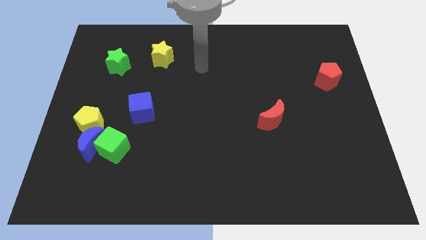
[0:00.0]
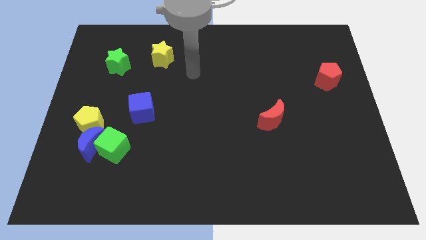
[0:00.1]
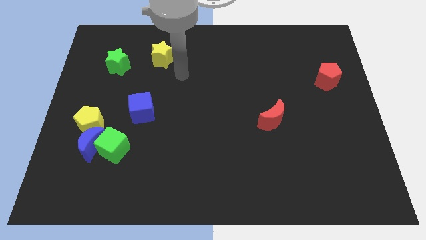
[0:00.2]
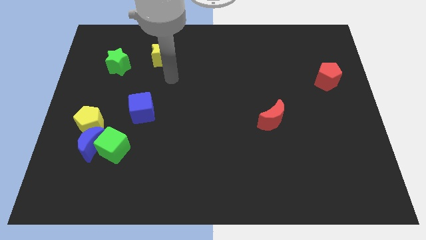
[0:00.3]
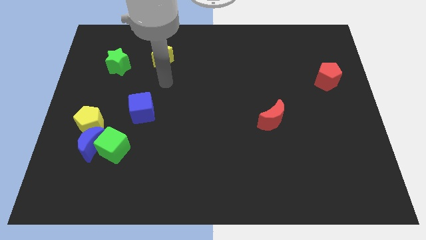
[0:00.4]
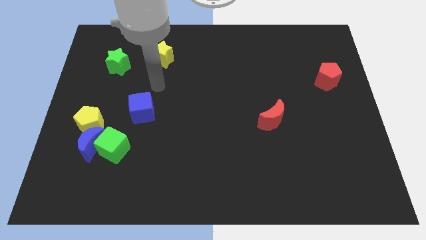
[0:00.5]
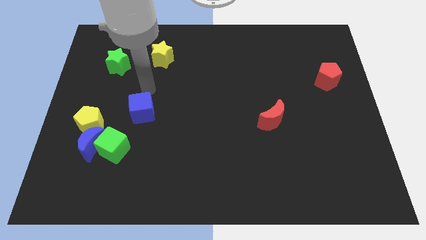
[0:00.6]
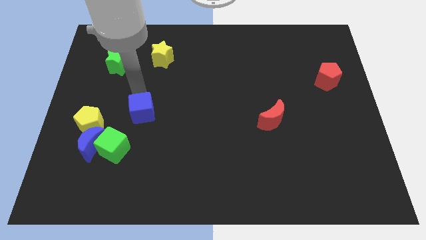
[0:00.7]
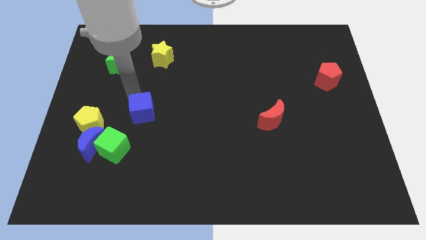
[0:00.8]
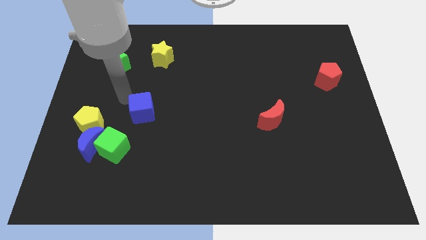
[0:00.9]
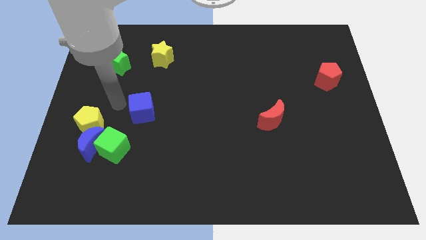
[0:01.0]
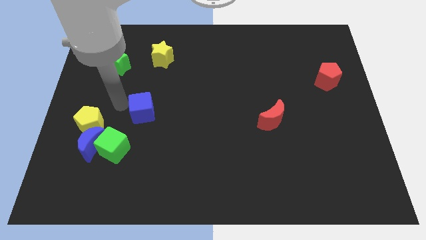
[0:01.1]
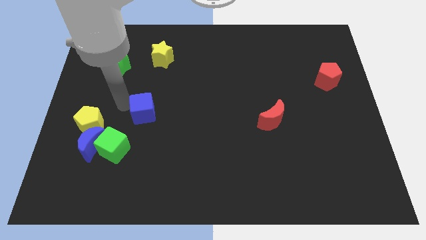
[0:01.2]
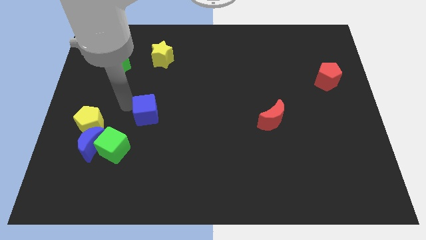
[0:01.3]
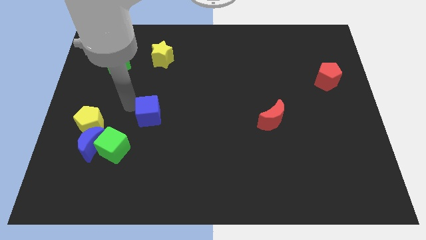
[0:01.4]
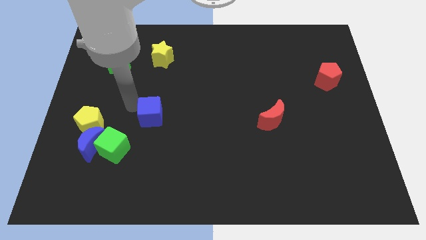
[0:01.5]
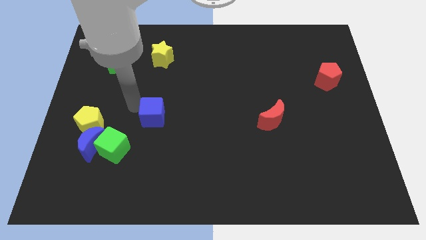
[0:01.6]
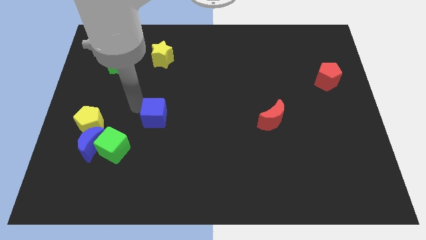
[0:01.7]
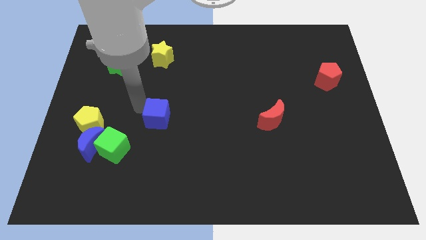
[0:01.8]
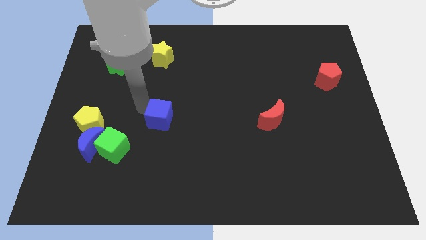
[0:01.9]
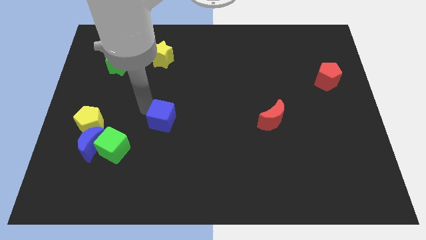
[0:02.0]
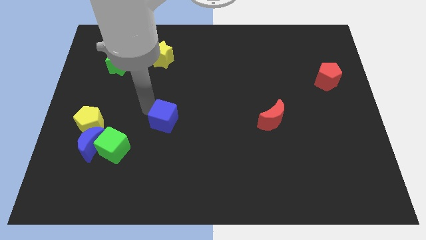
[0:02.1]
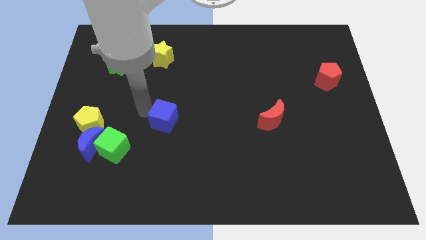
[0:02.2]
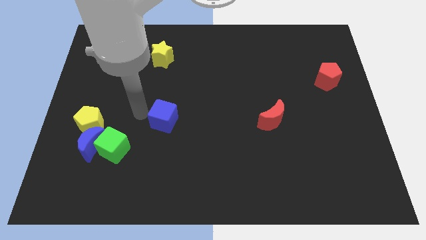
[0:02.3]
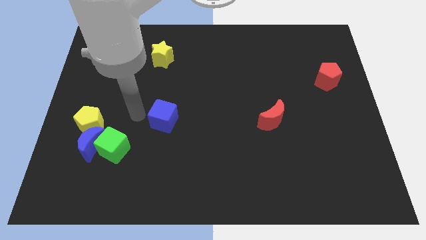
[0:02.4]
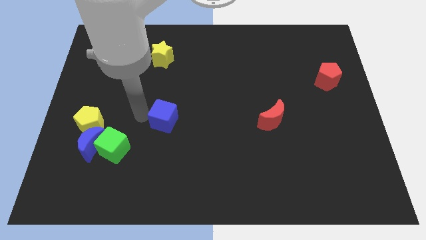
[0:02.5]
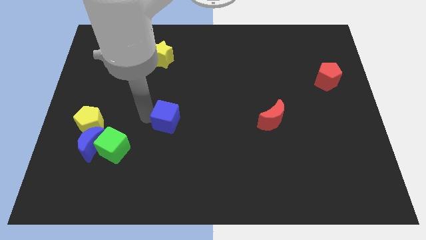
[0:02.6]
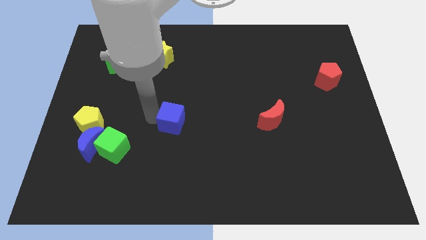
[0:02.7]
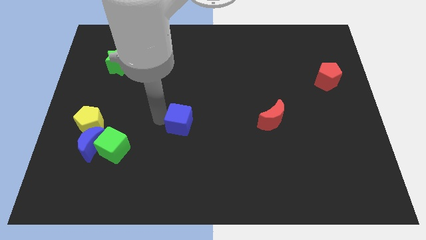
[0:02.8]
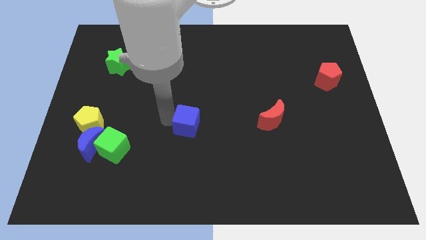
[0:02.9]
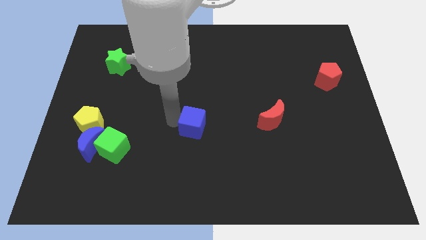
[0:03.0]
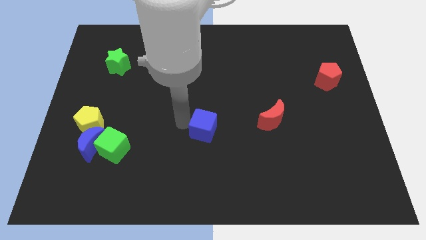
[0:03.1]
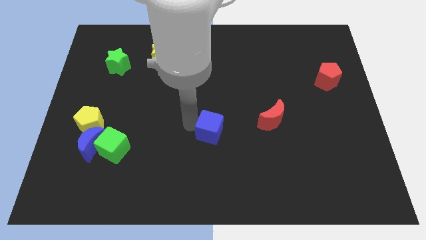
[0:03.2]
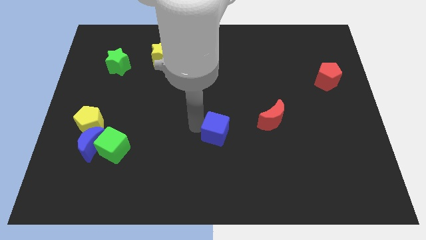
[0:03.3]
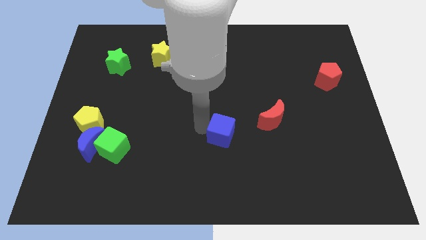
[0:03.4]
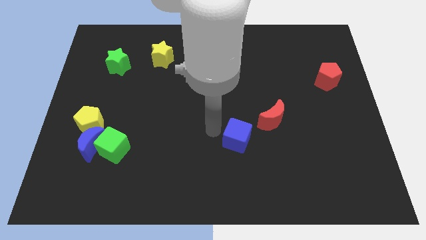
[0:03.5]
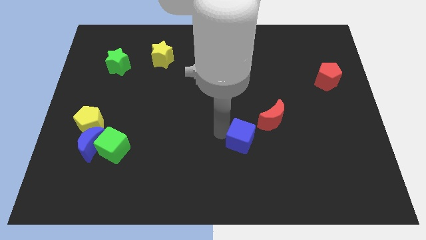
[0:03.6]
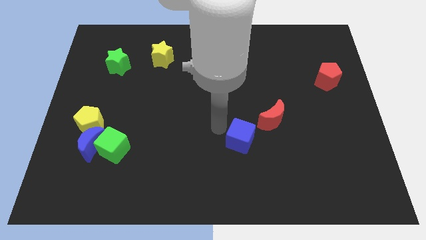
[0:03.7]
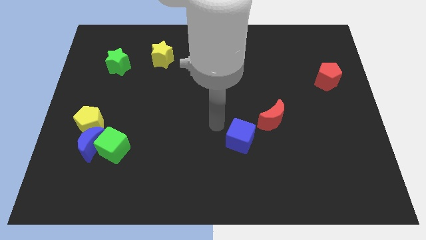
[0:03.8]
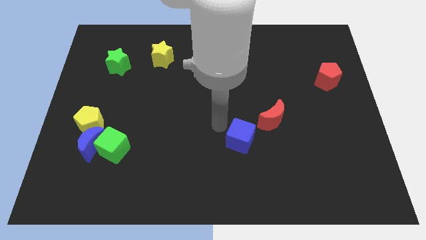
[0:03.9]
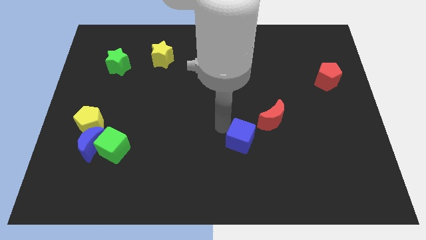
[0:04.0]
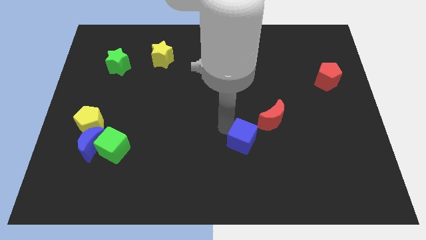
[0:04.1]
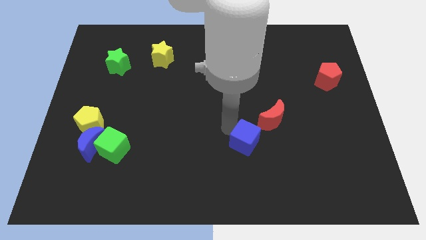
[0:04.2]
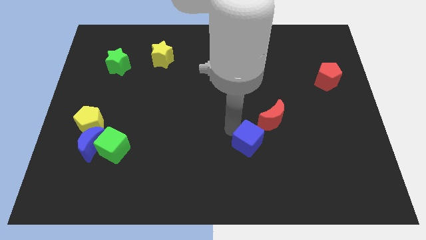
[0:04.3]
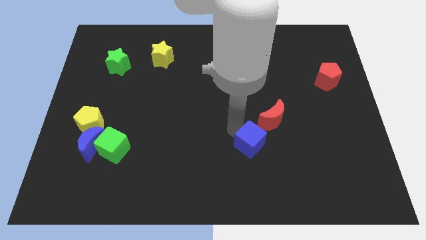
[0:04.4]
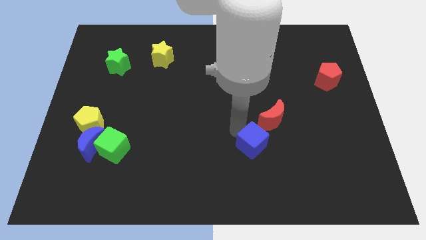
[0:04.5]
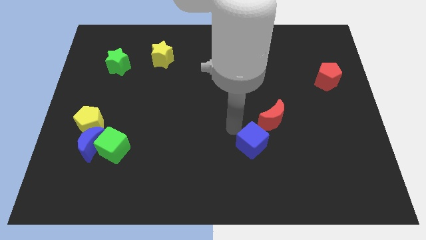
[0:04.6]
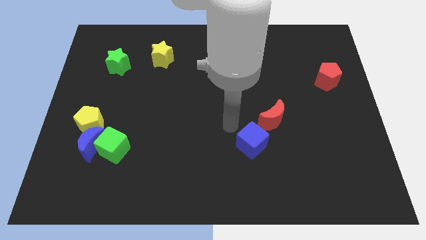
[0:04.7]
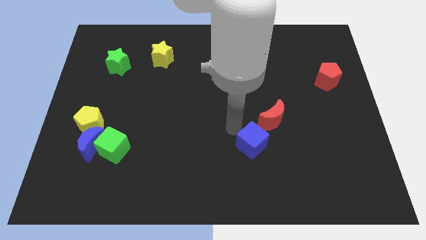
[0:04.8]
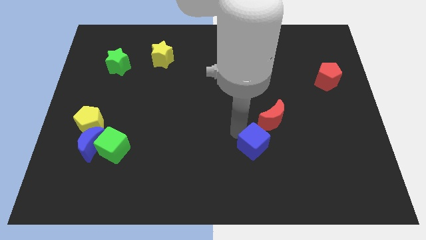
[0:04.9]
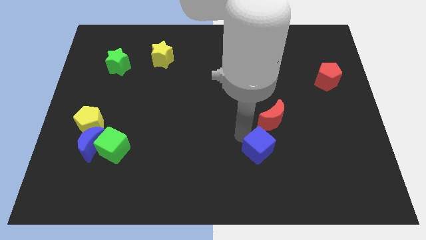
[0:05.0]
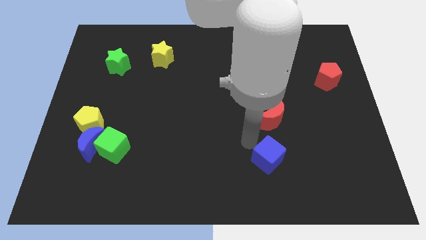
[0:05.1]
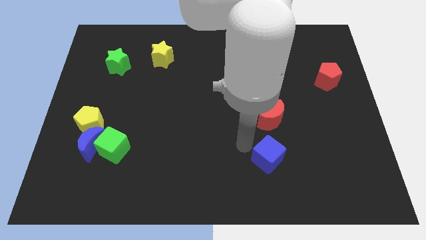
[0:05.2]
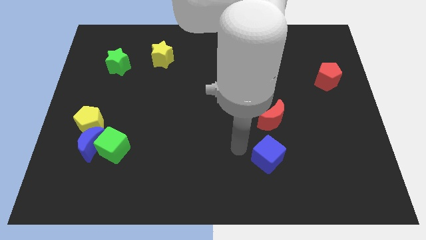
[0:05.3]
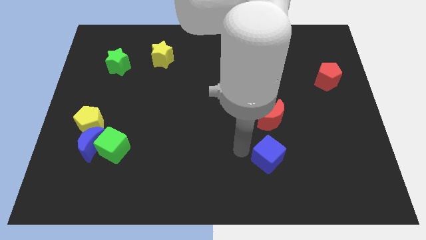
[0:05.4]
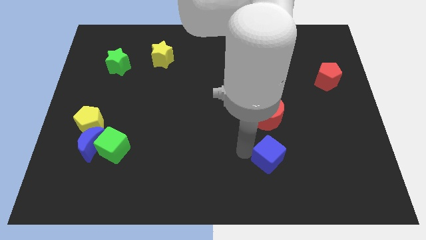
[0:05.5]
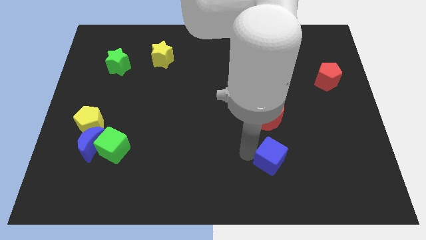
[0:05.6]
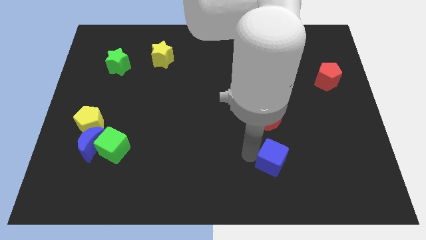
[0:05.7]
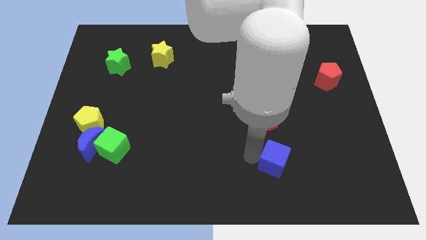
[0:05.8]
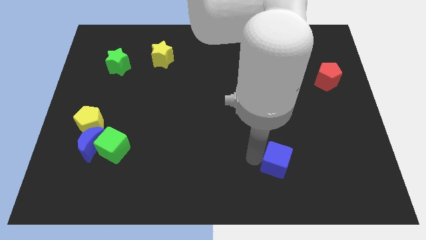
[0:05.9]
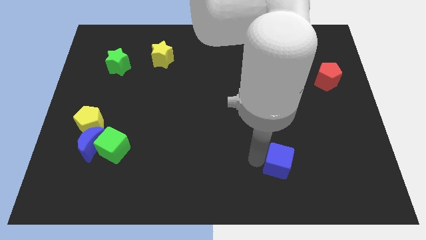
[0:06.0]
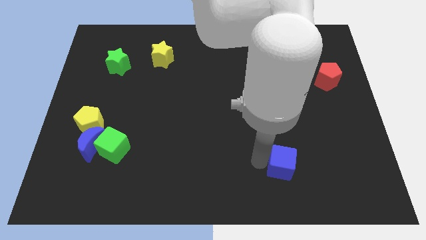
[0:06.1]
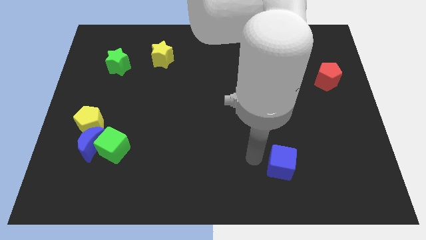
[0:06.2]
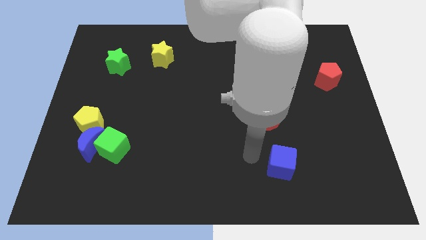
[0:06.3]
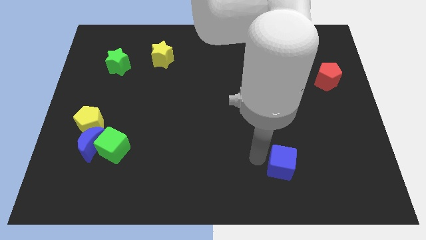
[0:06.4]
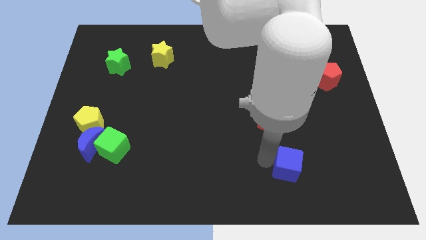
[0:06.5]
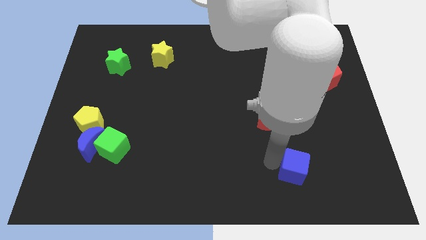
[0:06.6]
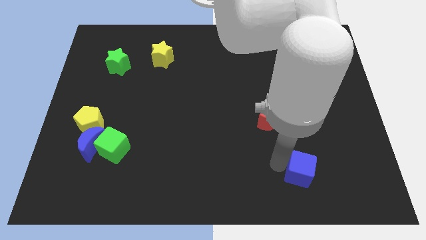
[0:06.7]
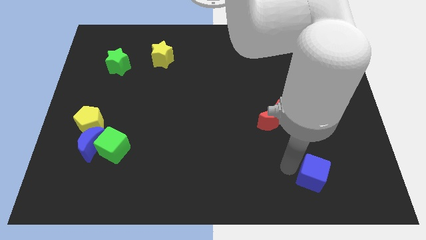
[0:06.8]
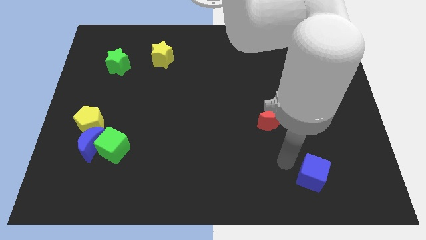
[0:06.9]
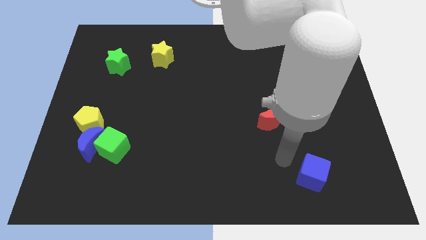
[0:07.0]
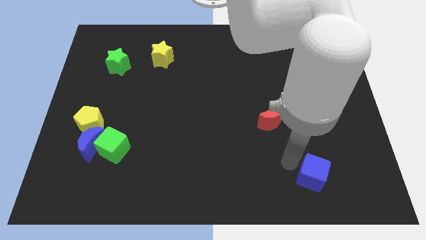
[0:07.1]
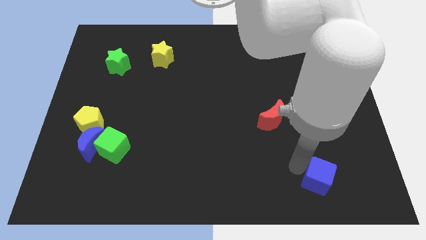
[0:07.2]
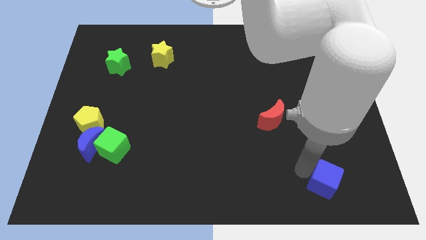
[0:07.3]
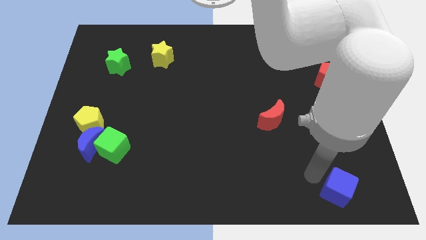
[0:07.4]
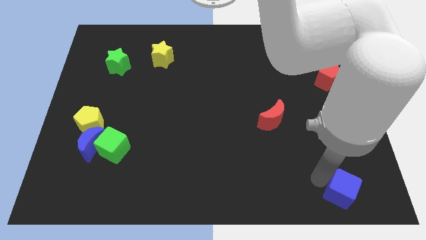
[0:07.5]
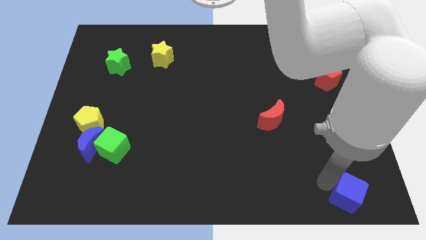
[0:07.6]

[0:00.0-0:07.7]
put the blue cube to the bottom right corner
